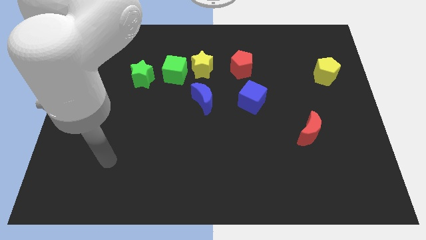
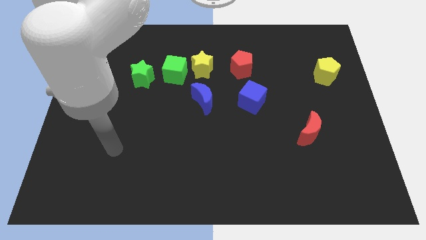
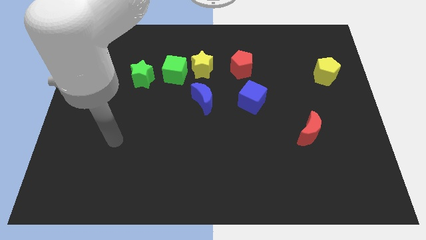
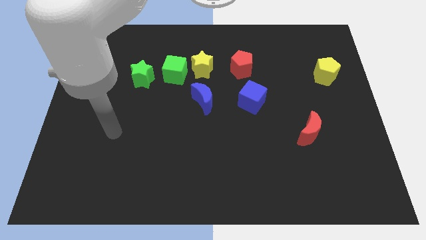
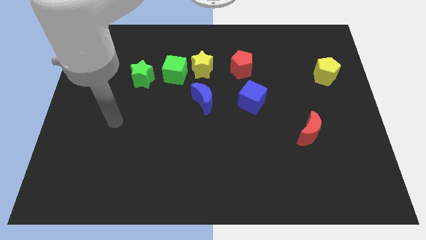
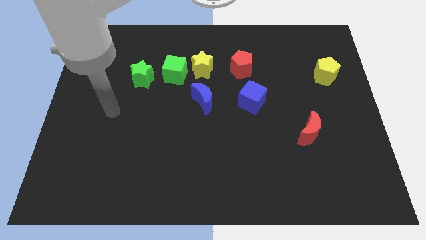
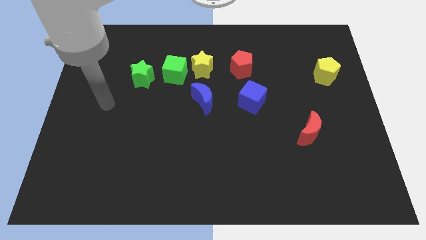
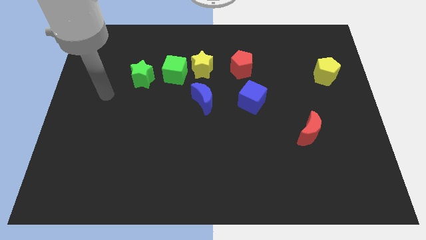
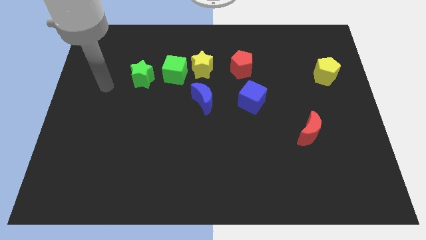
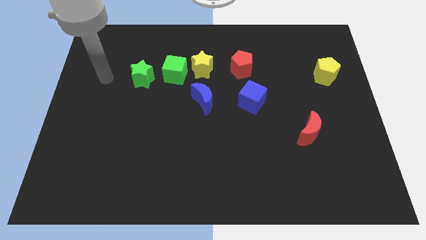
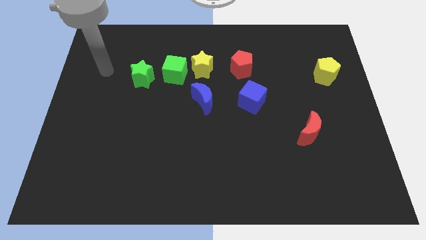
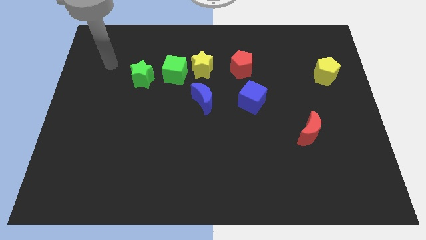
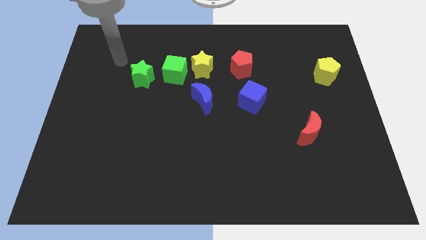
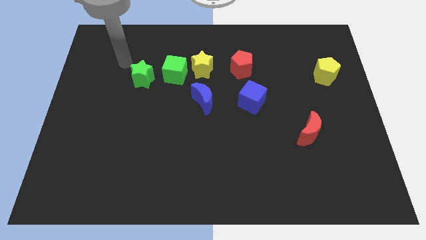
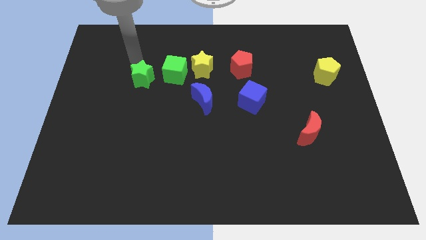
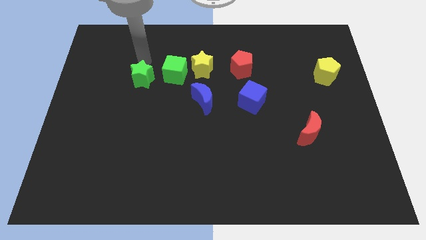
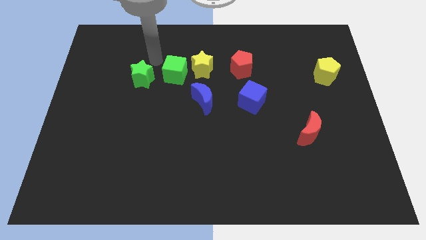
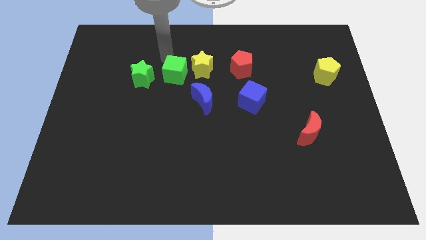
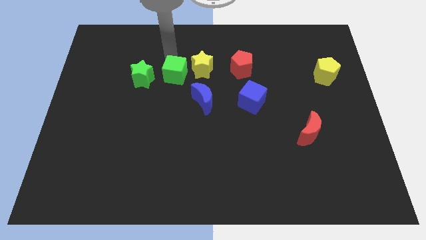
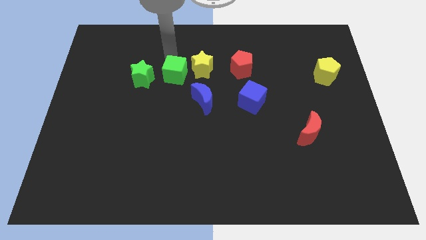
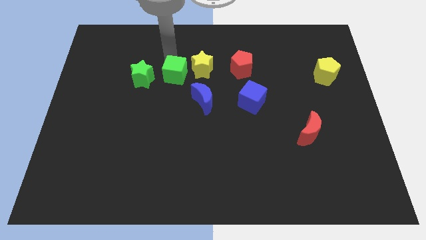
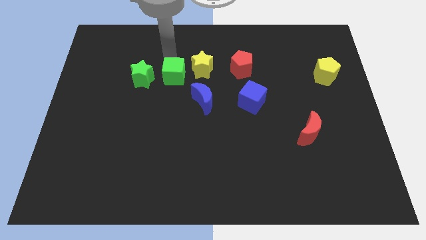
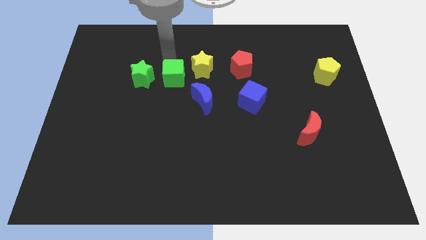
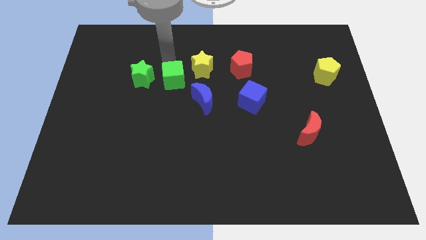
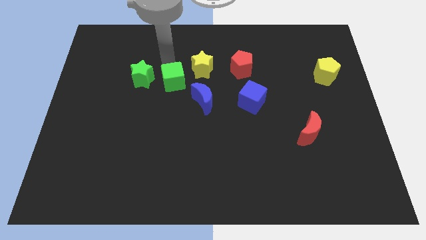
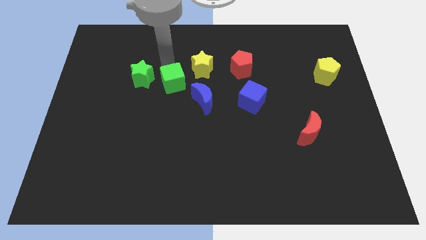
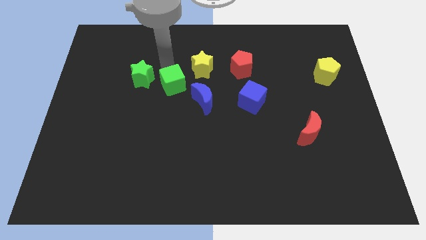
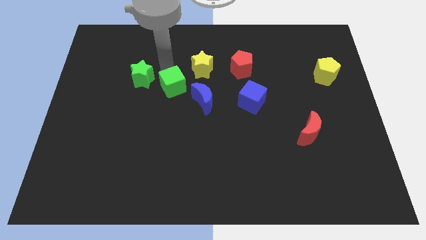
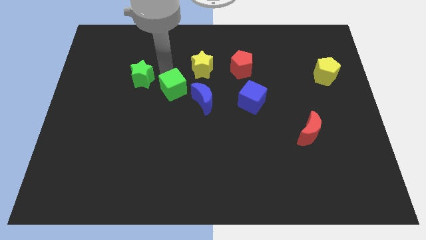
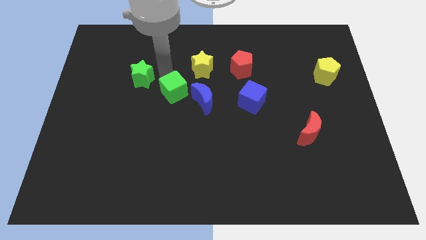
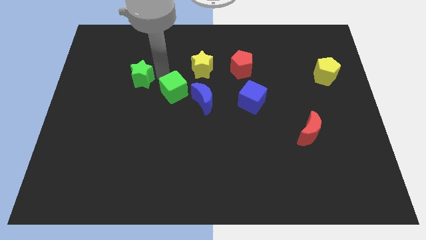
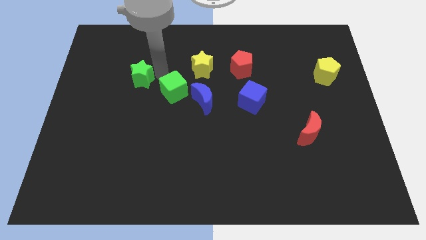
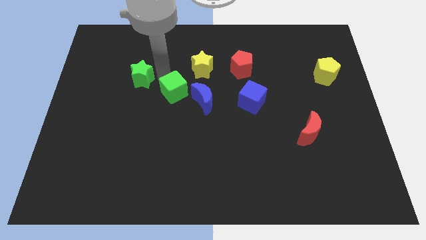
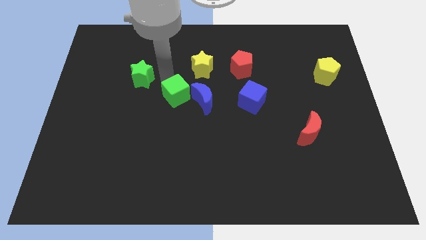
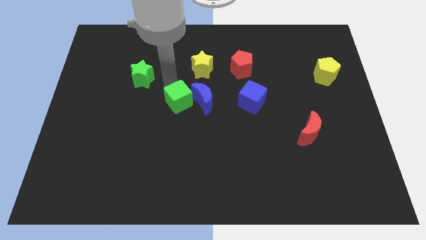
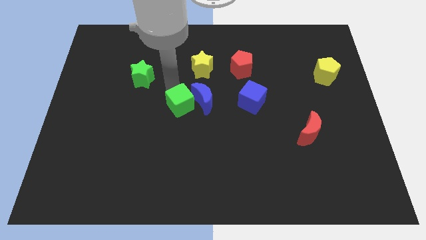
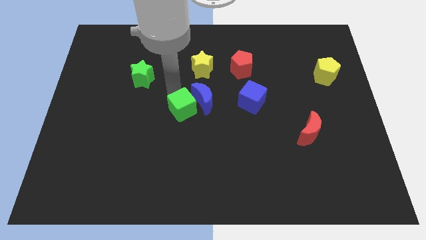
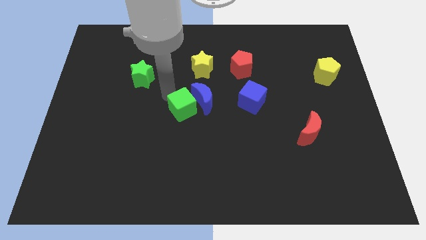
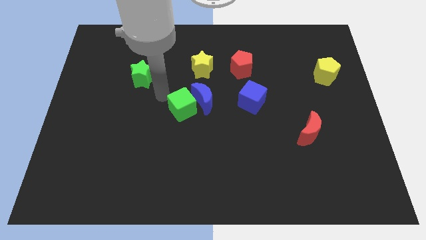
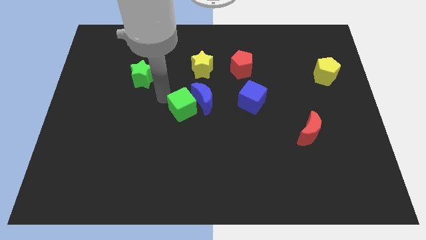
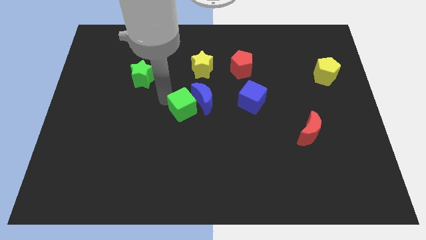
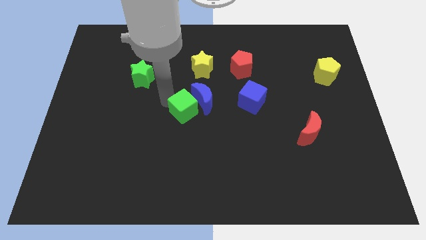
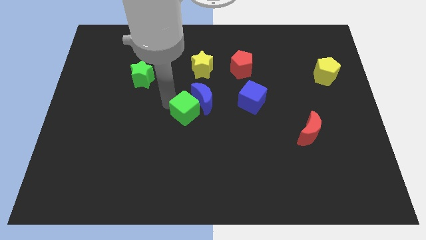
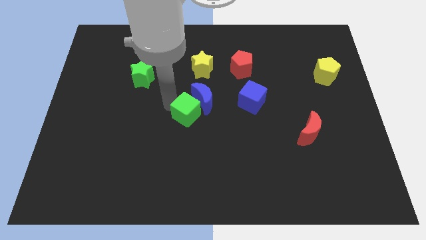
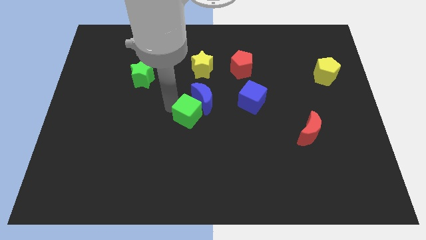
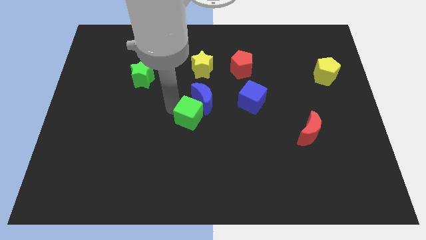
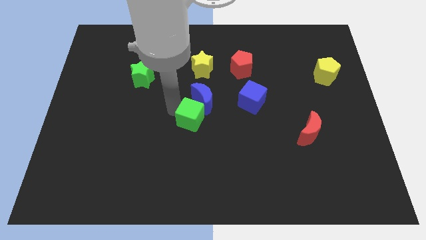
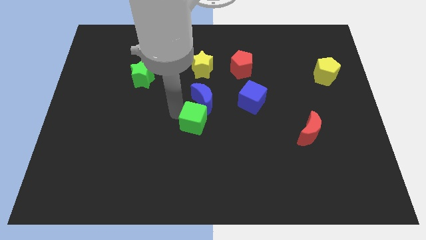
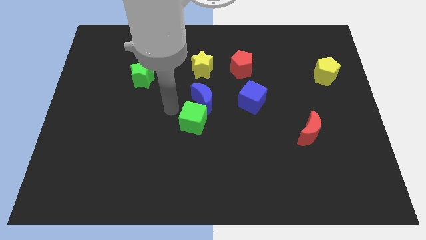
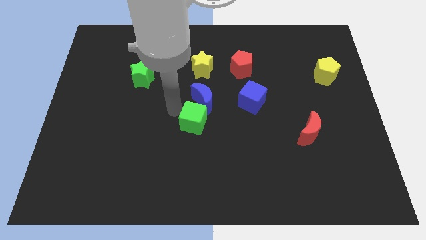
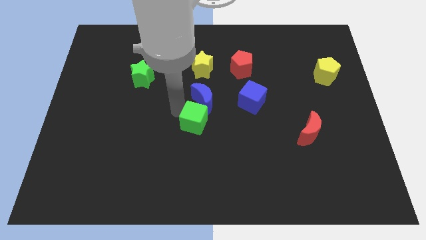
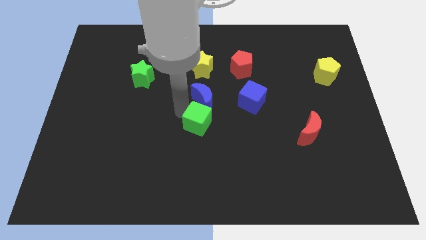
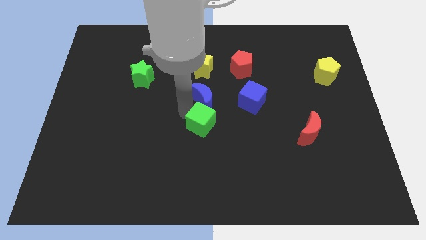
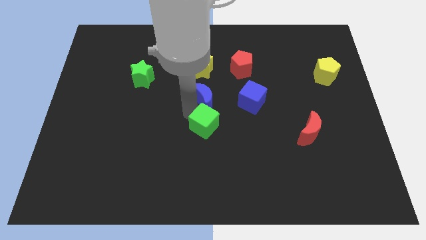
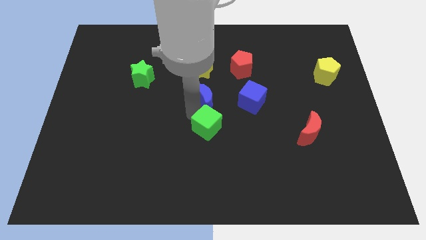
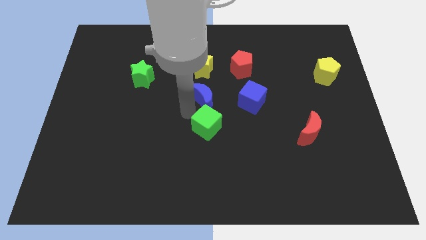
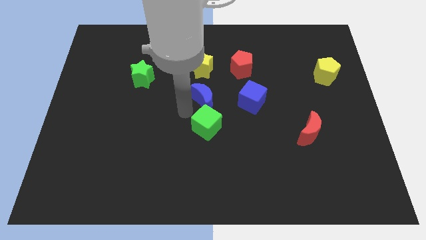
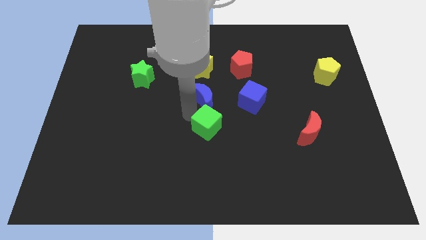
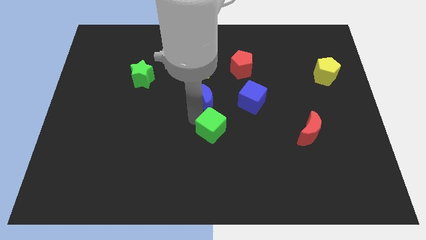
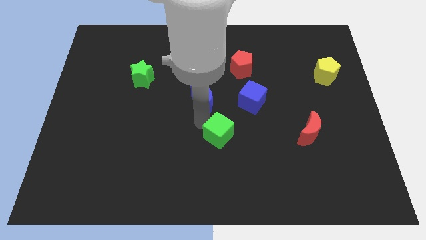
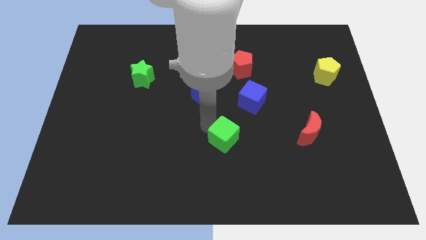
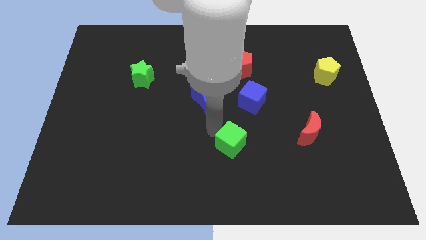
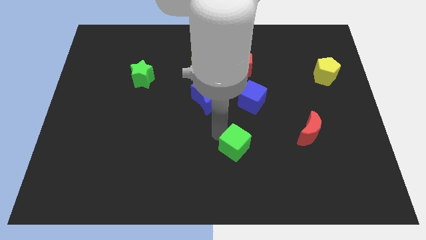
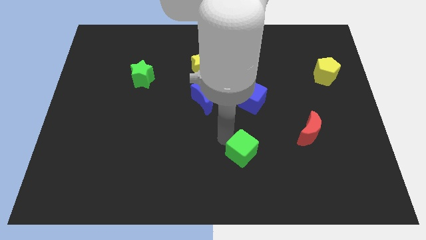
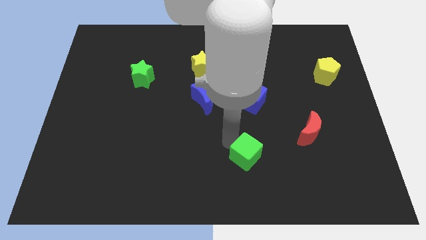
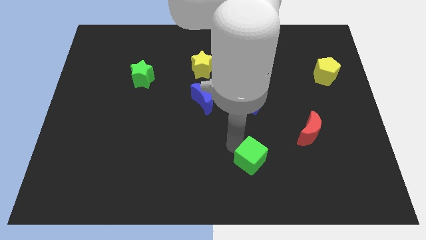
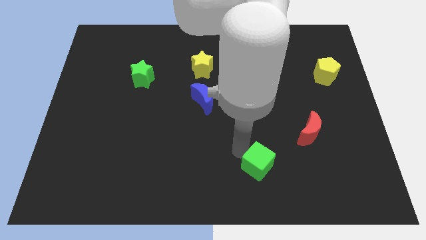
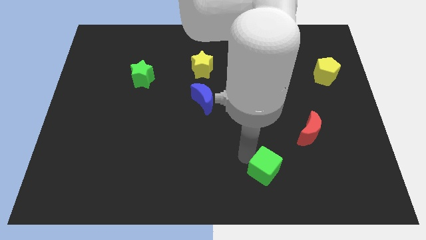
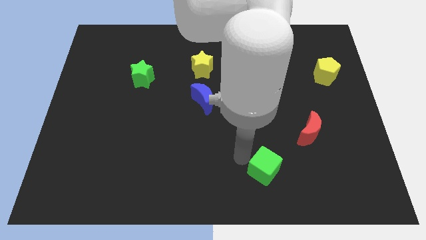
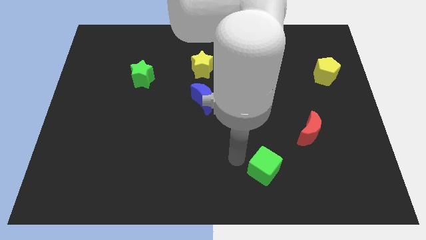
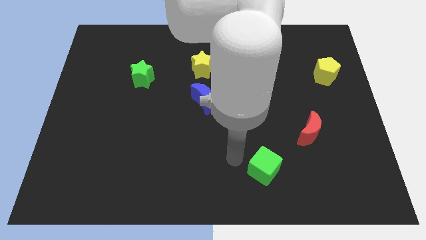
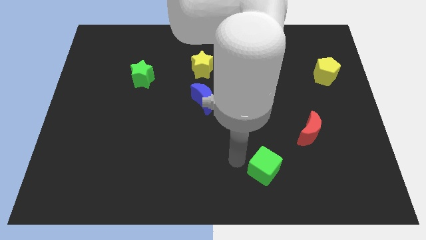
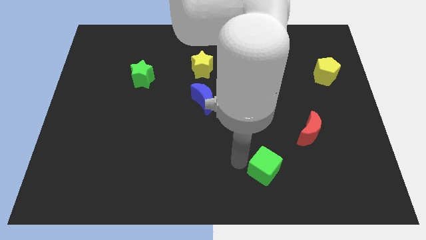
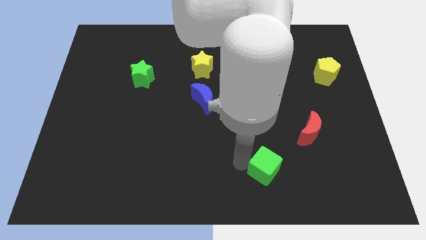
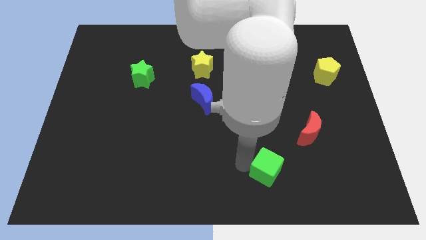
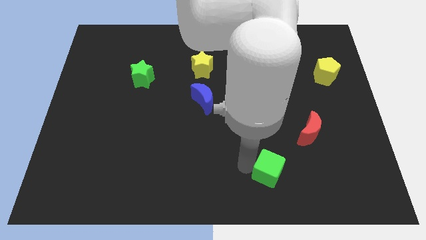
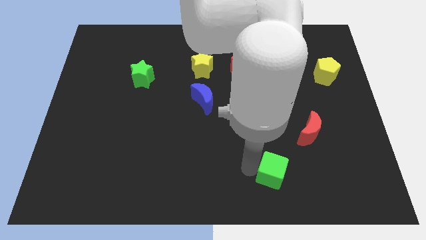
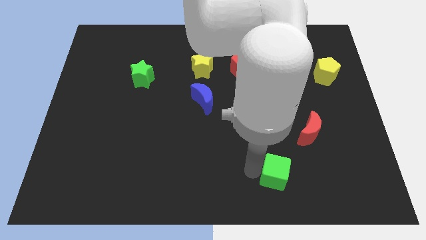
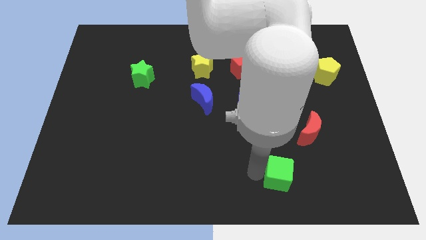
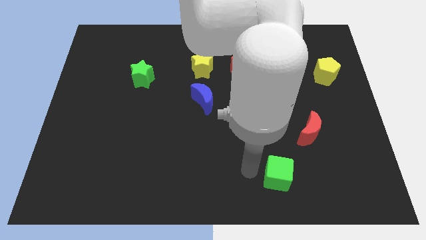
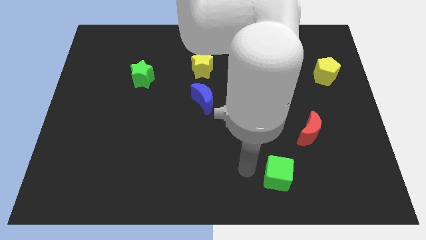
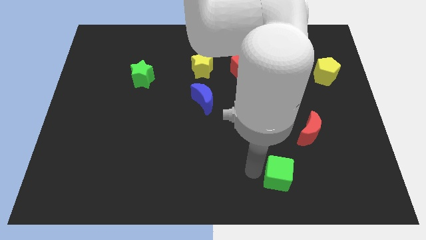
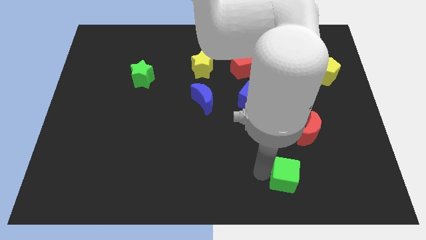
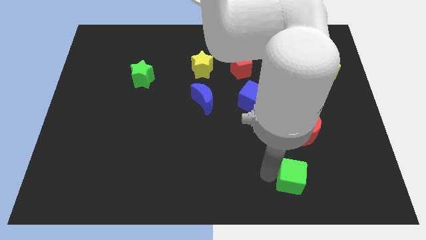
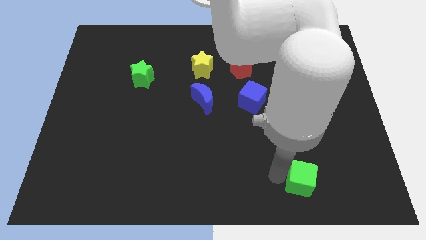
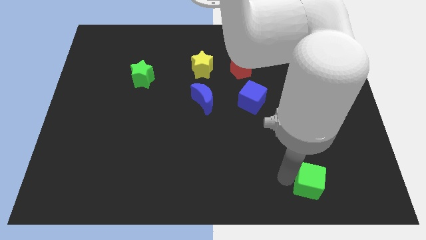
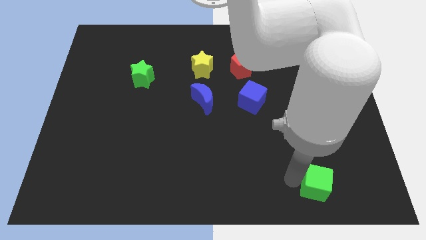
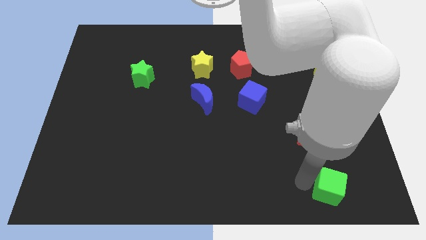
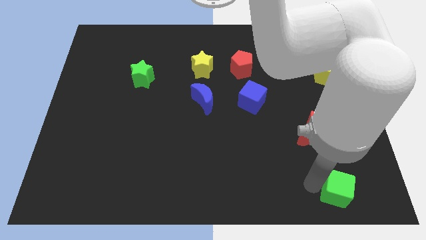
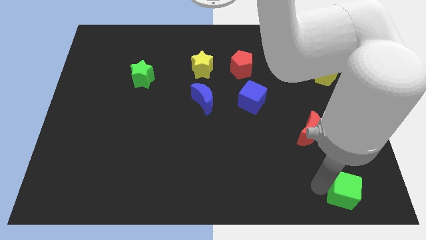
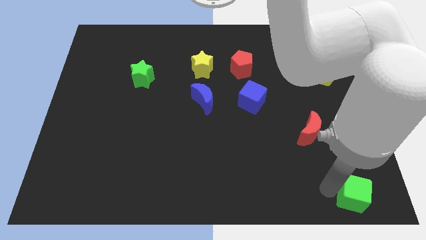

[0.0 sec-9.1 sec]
move the green cube to the bottom right corner
